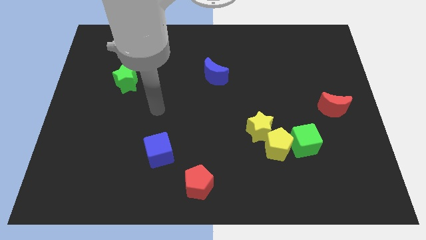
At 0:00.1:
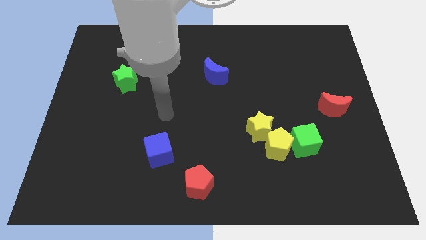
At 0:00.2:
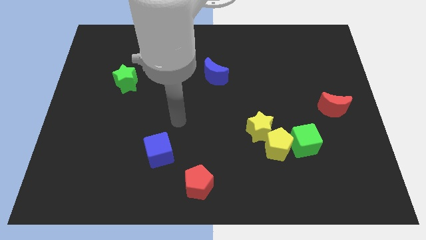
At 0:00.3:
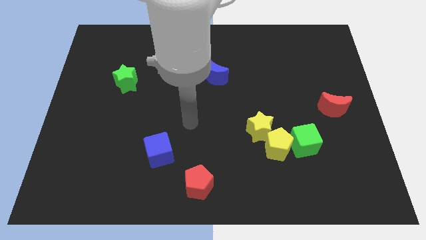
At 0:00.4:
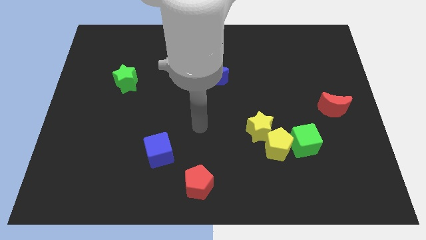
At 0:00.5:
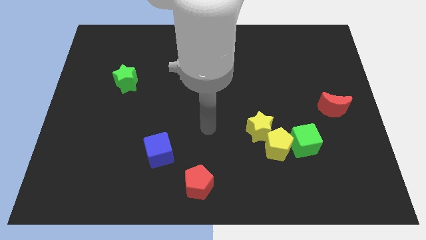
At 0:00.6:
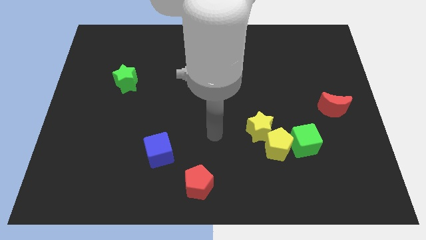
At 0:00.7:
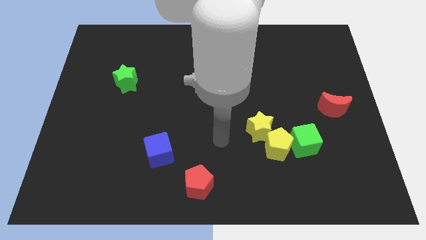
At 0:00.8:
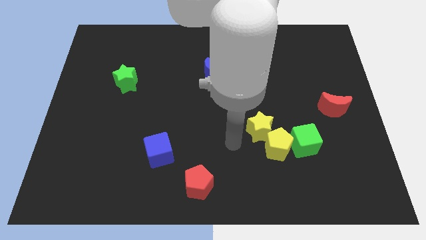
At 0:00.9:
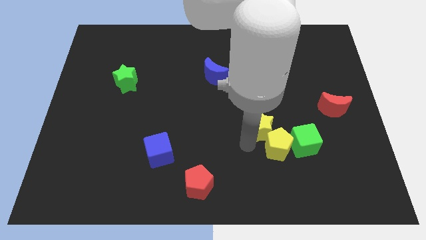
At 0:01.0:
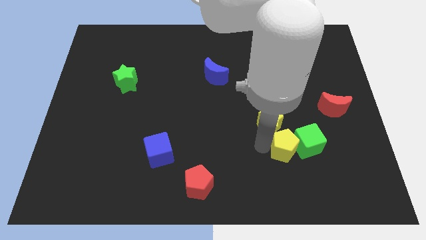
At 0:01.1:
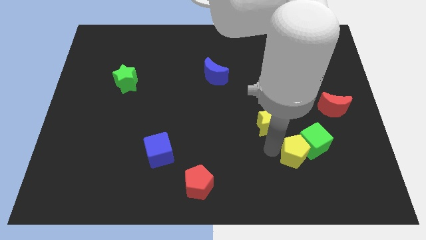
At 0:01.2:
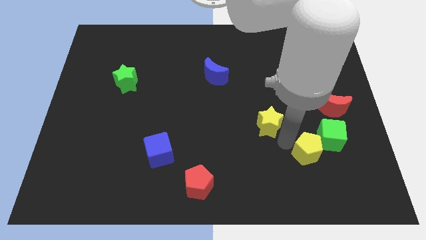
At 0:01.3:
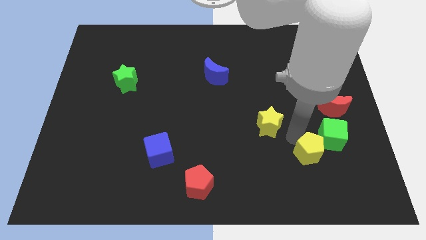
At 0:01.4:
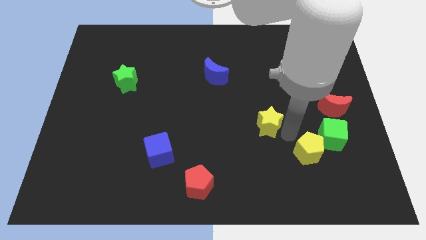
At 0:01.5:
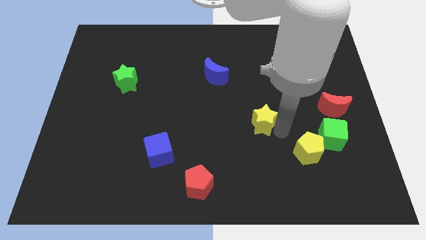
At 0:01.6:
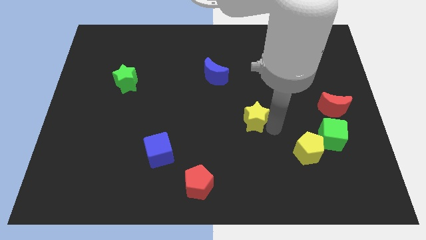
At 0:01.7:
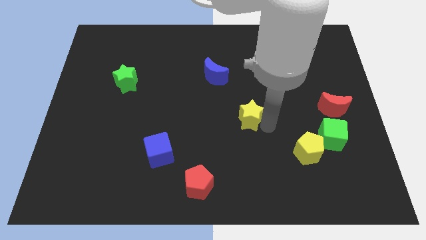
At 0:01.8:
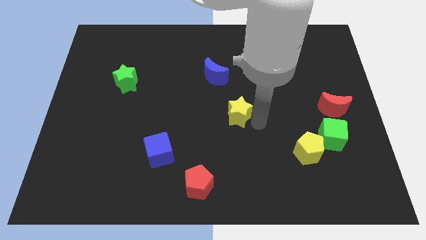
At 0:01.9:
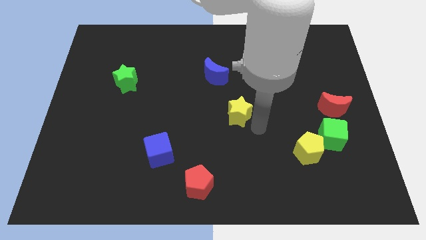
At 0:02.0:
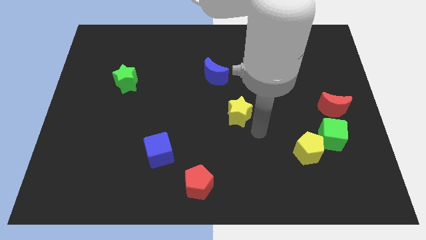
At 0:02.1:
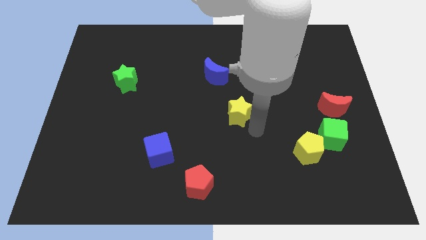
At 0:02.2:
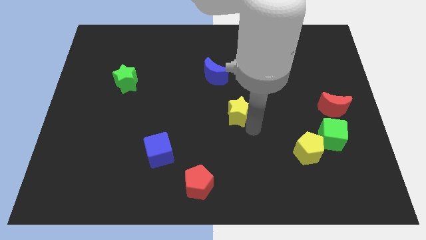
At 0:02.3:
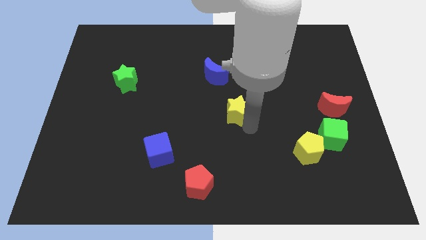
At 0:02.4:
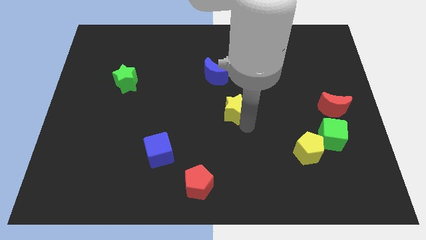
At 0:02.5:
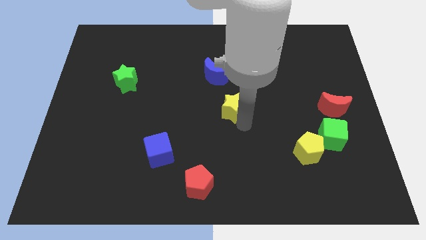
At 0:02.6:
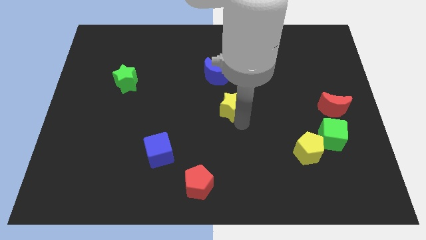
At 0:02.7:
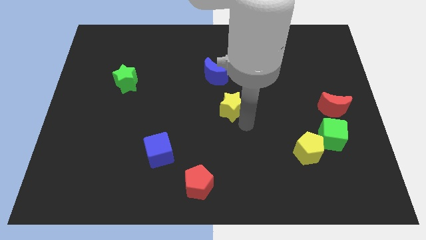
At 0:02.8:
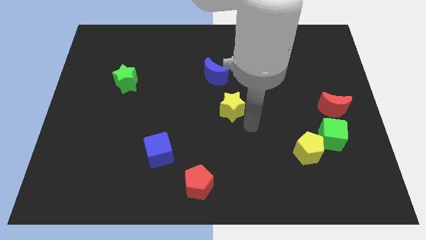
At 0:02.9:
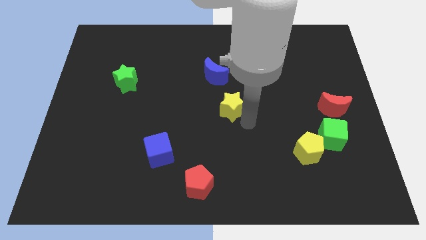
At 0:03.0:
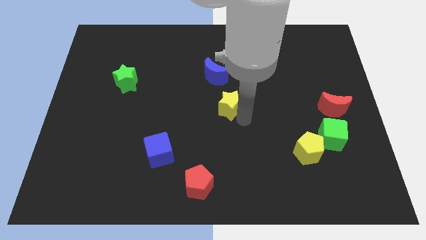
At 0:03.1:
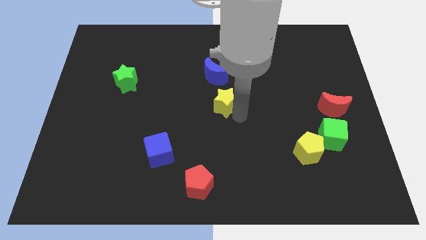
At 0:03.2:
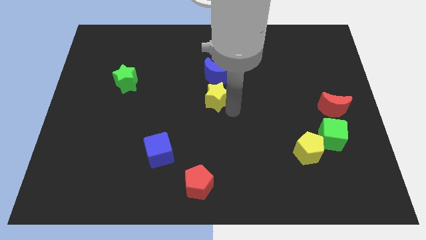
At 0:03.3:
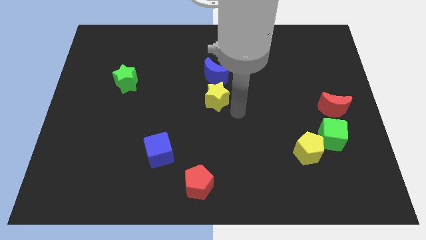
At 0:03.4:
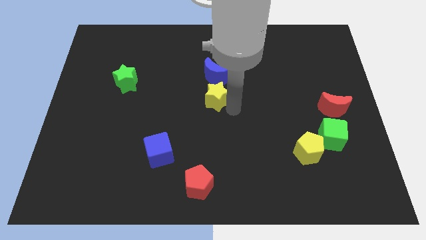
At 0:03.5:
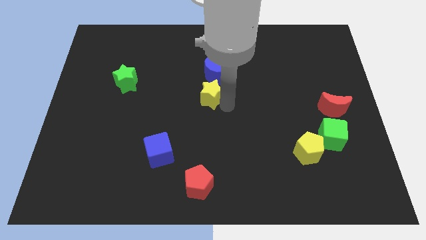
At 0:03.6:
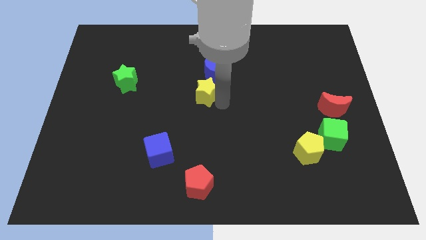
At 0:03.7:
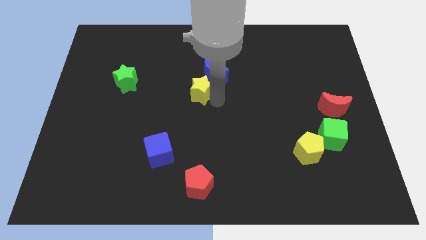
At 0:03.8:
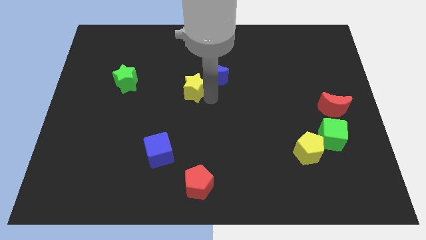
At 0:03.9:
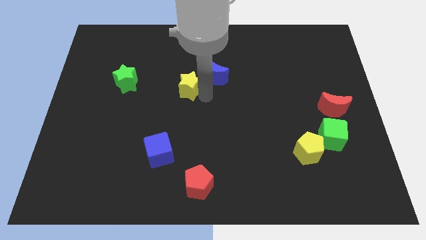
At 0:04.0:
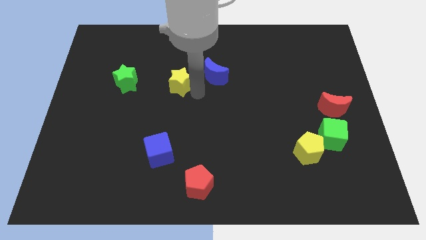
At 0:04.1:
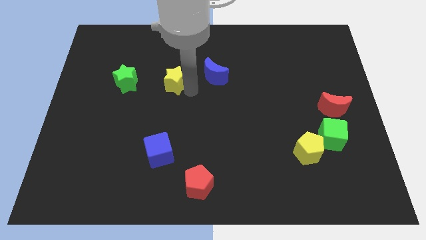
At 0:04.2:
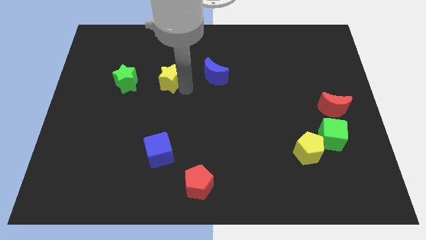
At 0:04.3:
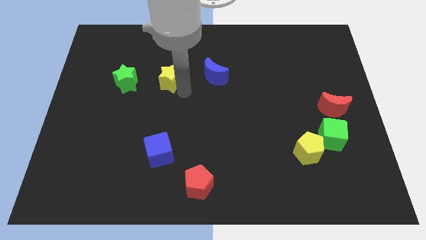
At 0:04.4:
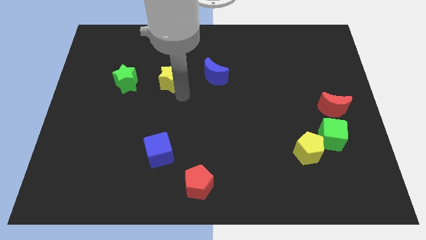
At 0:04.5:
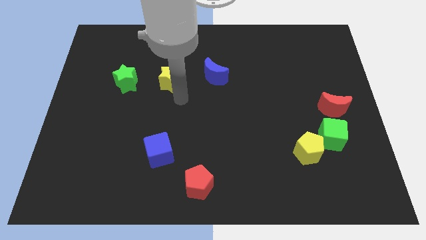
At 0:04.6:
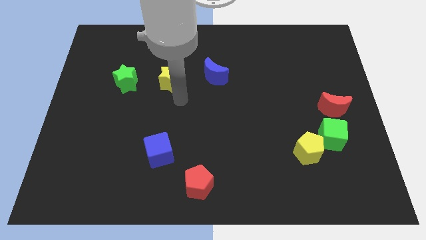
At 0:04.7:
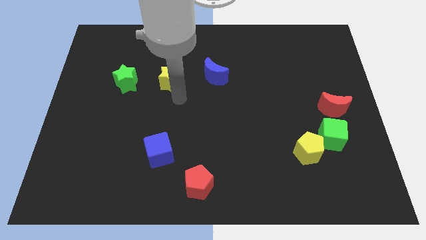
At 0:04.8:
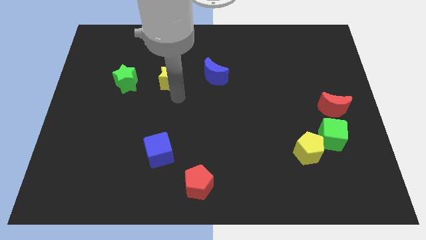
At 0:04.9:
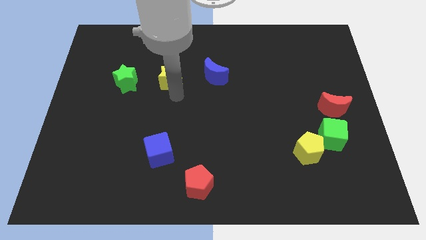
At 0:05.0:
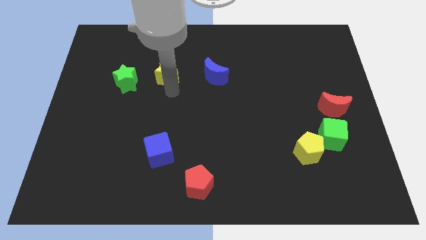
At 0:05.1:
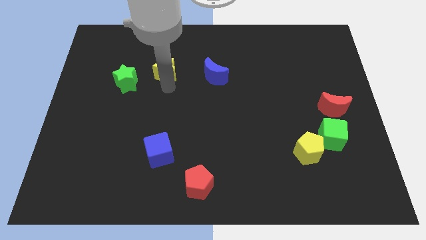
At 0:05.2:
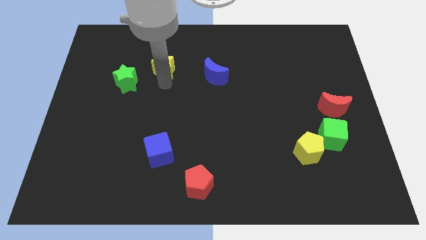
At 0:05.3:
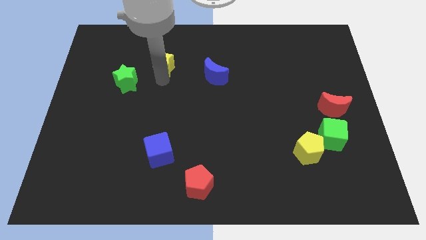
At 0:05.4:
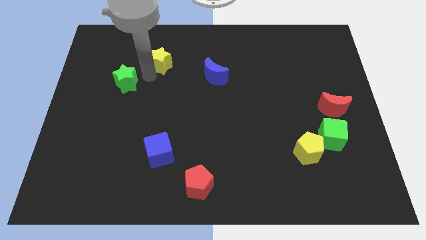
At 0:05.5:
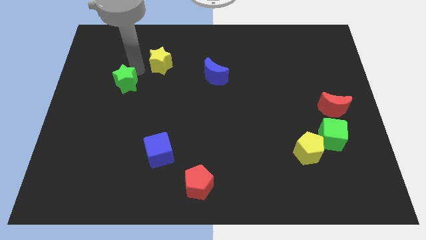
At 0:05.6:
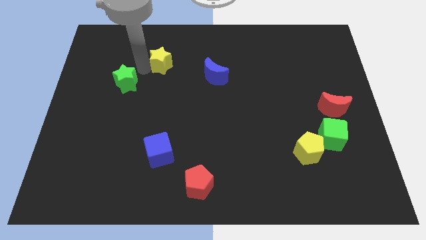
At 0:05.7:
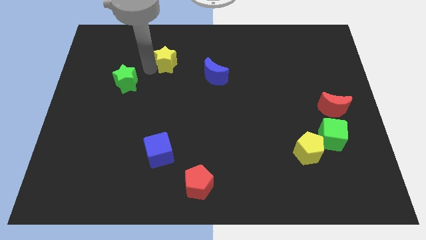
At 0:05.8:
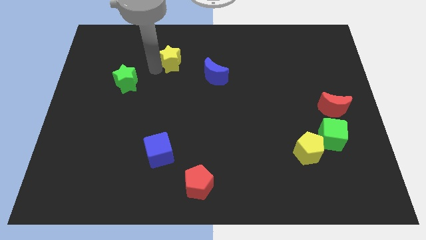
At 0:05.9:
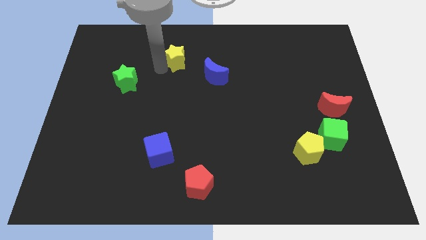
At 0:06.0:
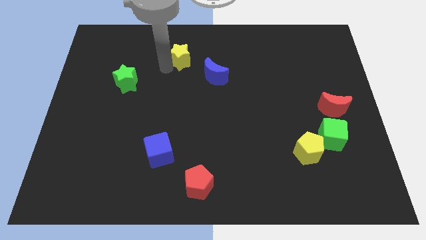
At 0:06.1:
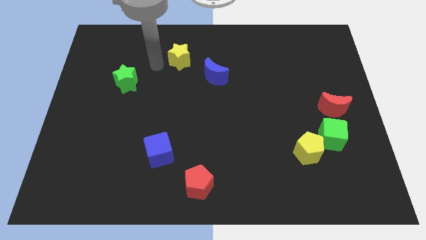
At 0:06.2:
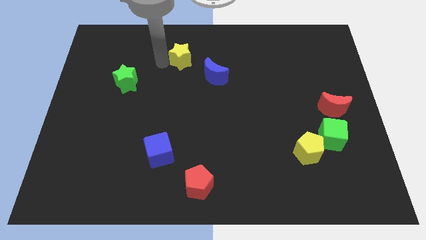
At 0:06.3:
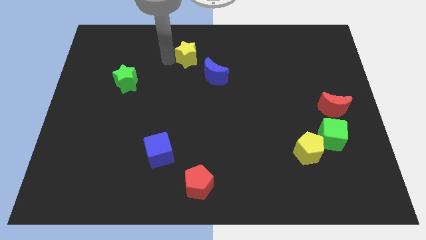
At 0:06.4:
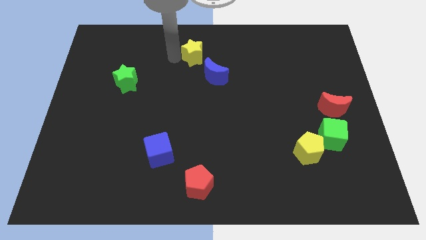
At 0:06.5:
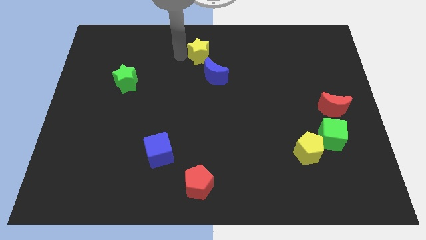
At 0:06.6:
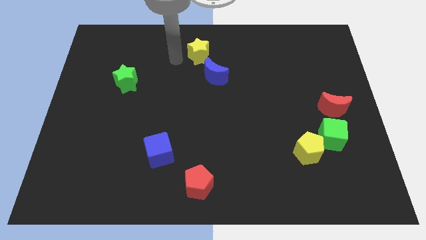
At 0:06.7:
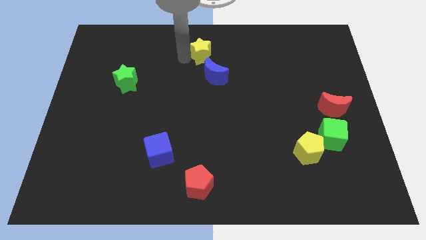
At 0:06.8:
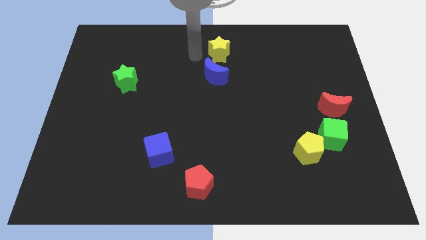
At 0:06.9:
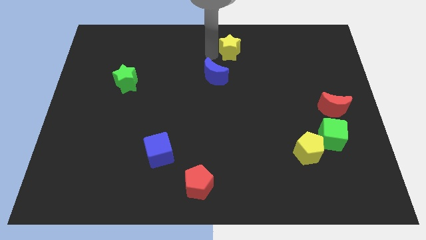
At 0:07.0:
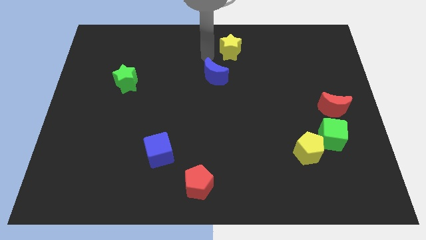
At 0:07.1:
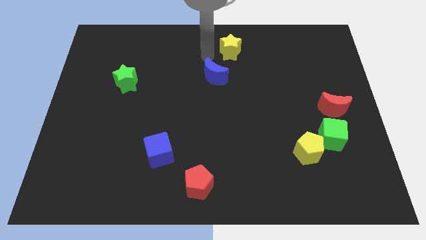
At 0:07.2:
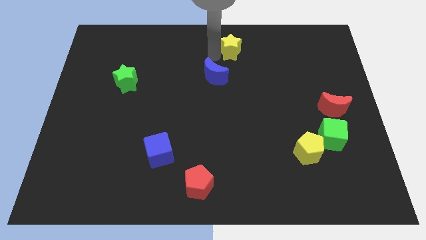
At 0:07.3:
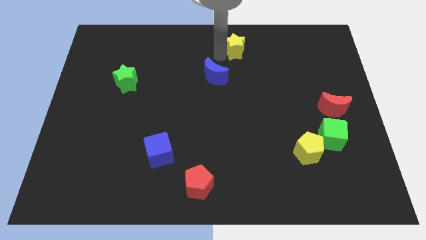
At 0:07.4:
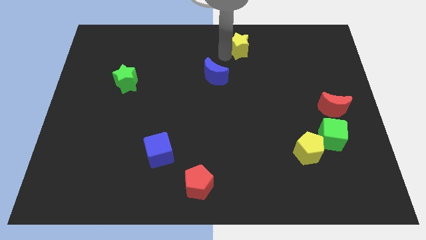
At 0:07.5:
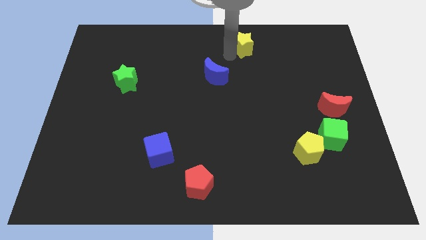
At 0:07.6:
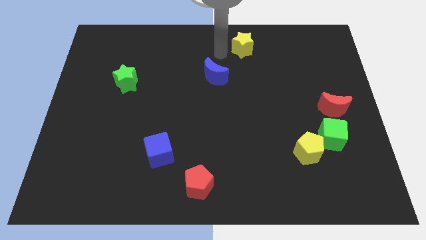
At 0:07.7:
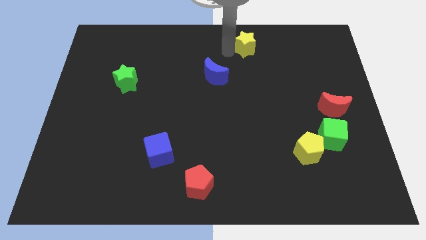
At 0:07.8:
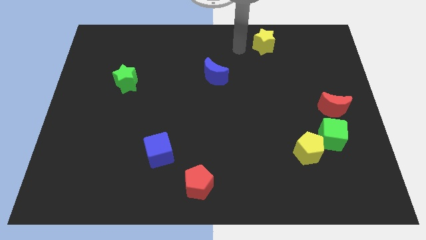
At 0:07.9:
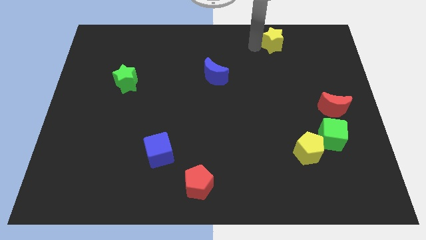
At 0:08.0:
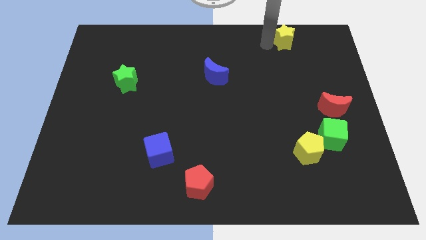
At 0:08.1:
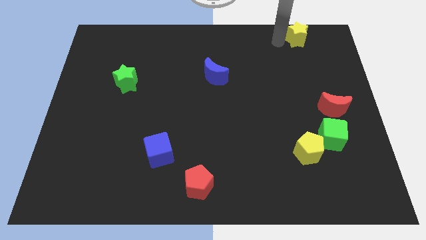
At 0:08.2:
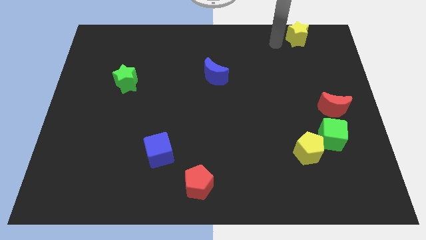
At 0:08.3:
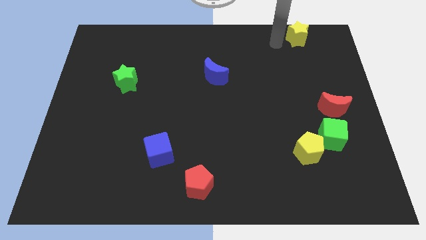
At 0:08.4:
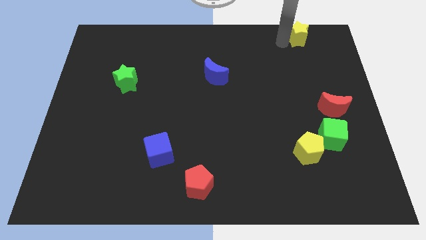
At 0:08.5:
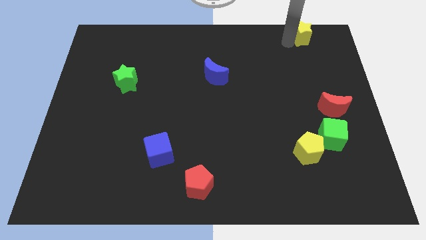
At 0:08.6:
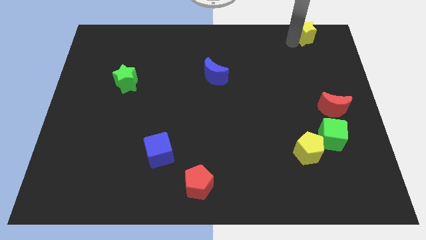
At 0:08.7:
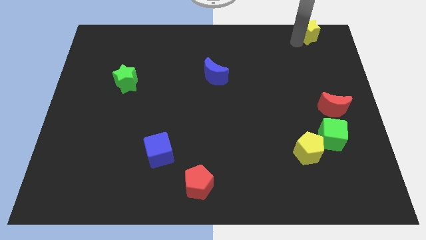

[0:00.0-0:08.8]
push the yellow star to the top right corner
